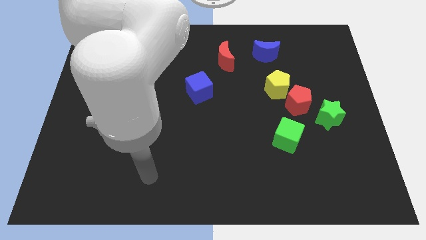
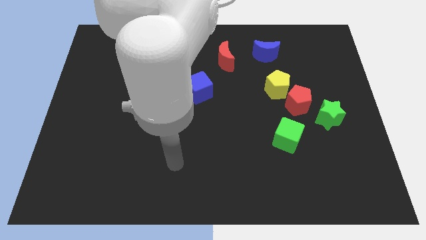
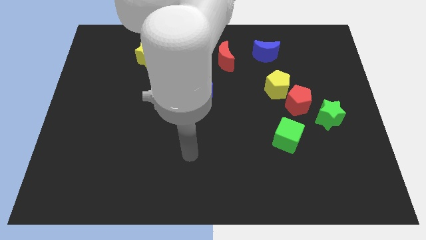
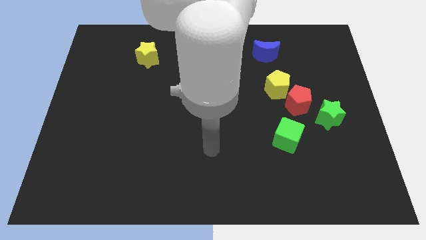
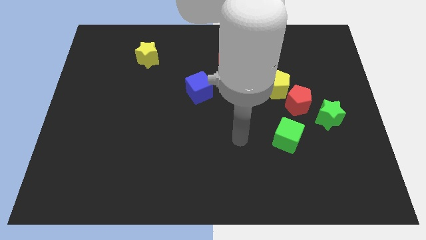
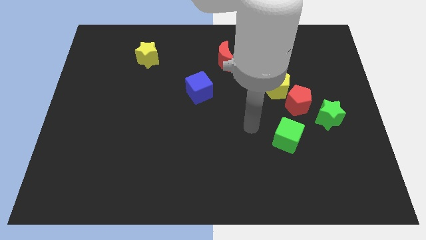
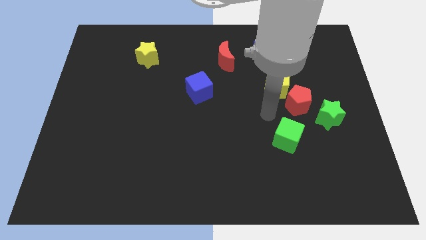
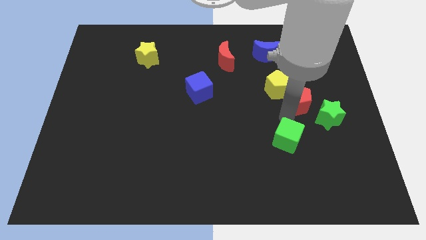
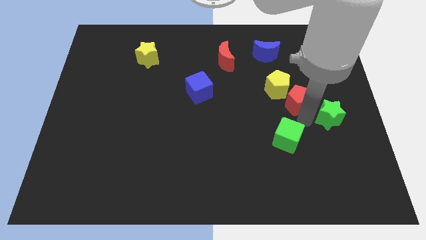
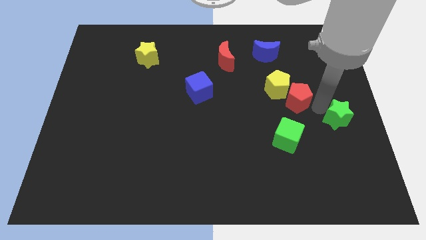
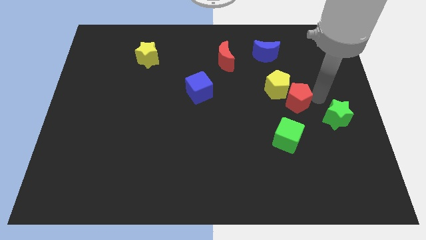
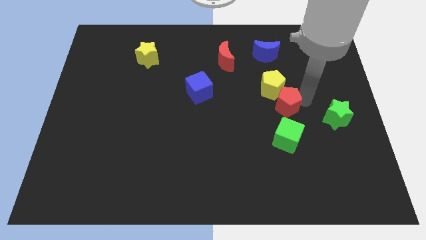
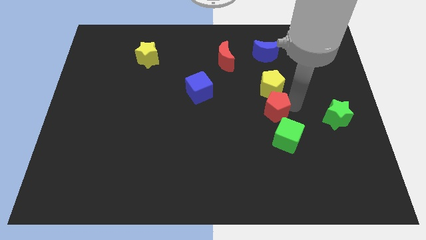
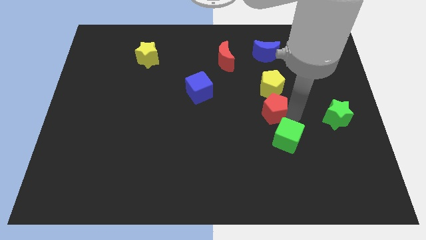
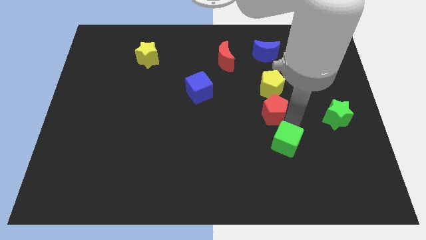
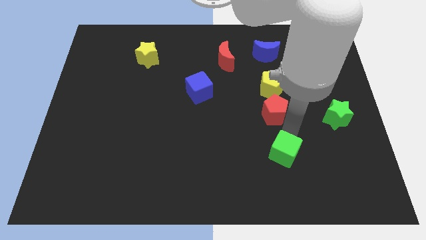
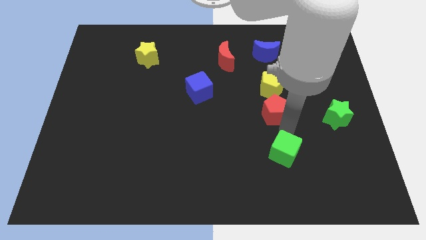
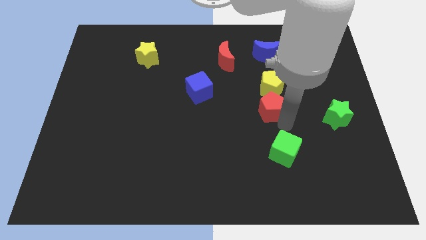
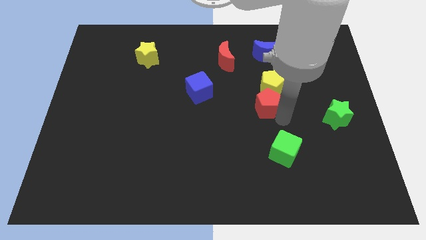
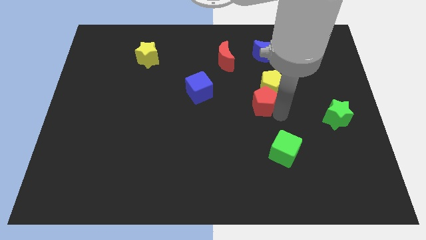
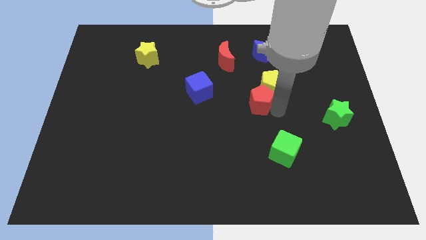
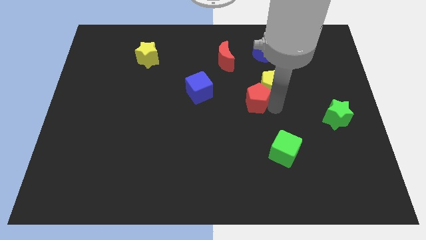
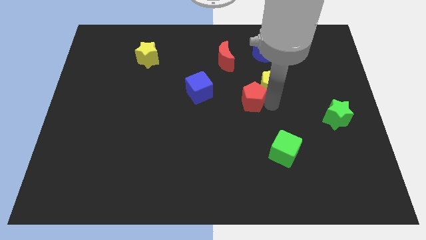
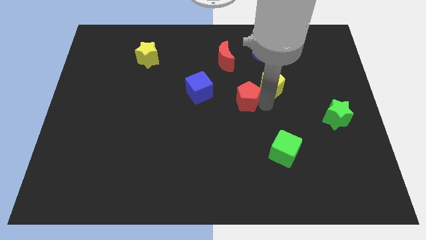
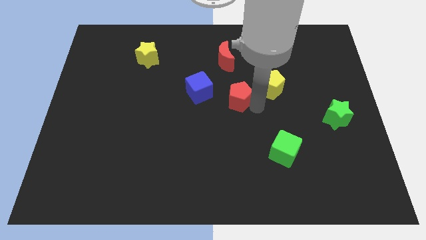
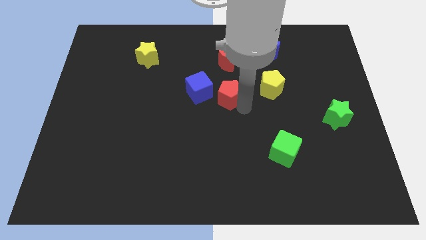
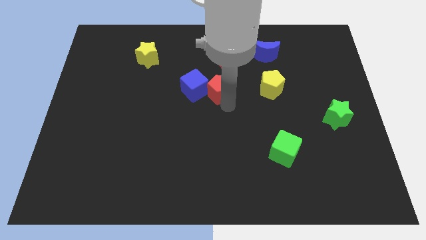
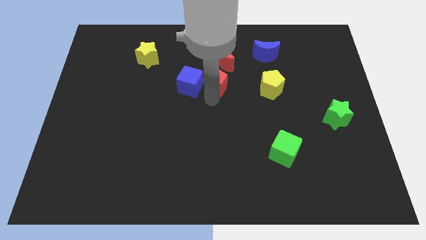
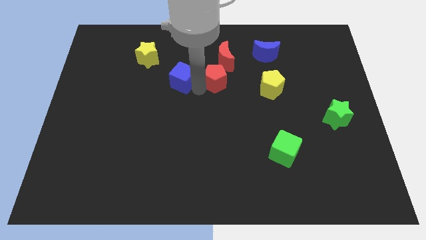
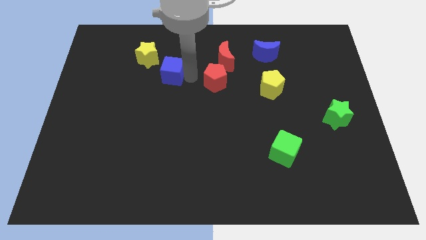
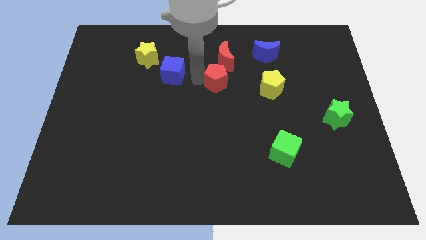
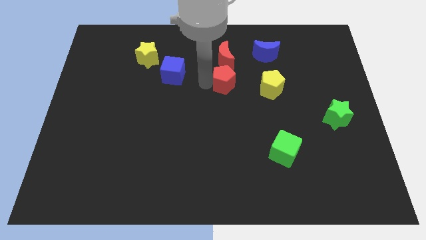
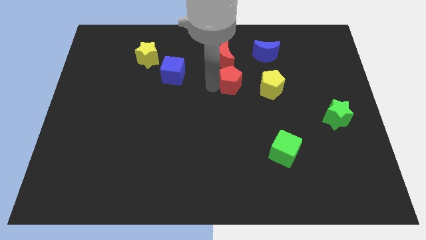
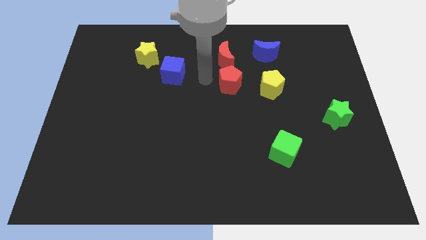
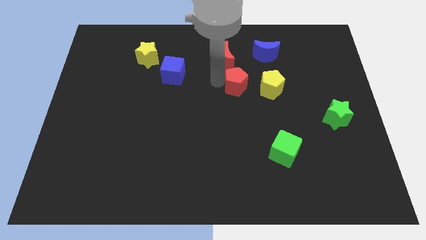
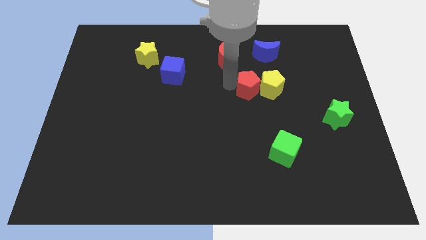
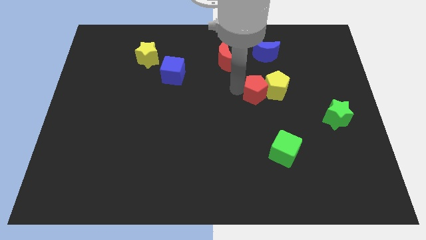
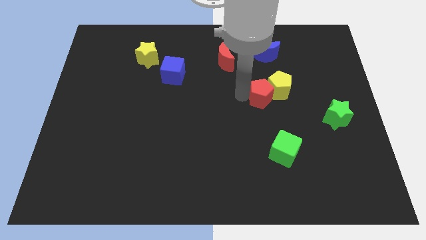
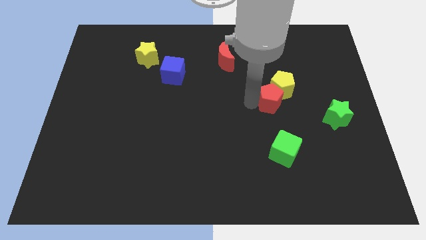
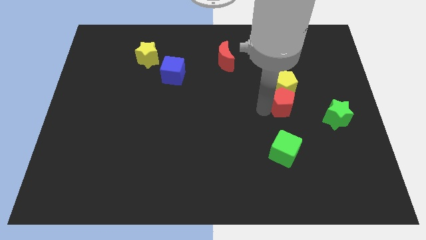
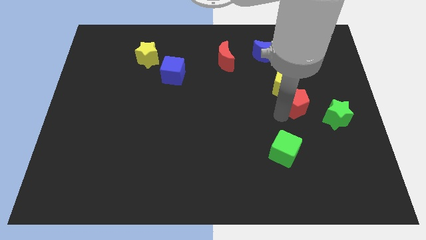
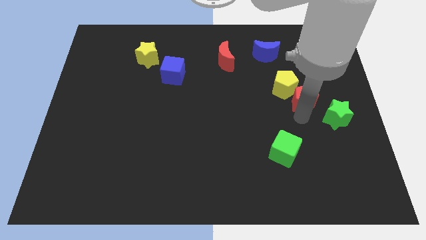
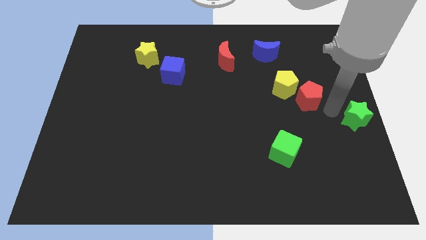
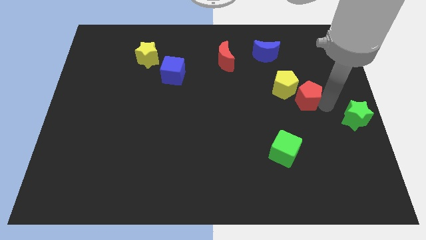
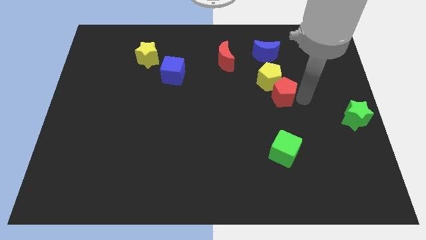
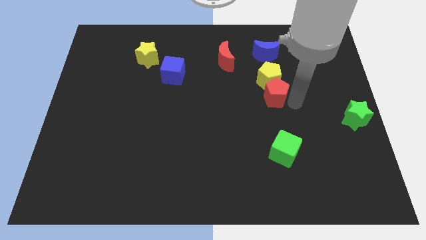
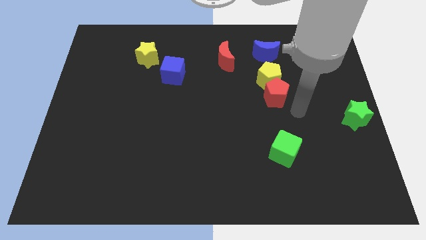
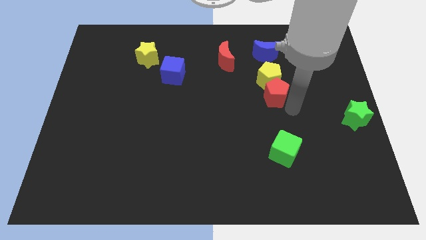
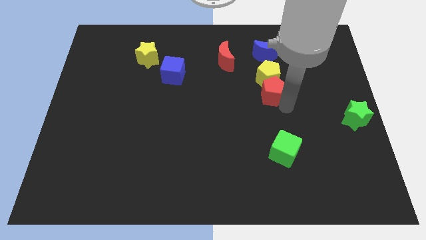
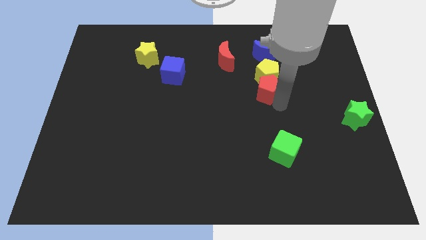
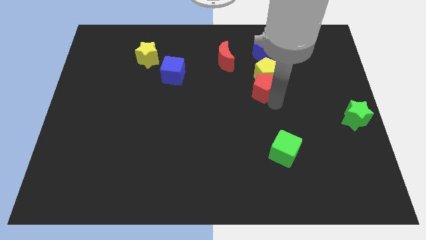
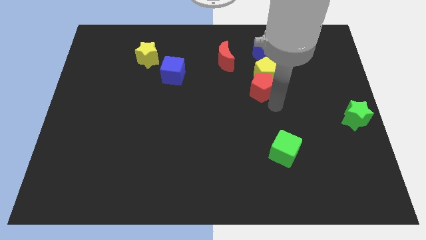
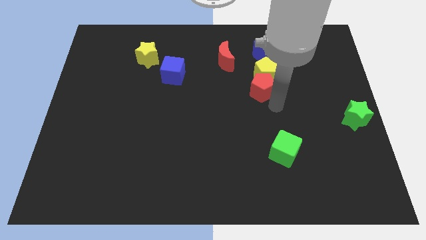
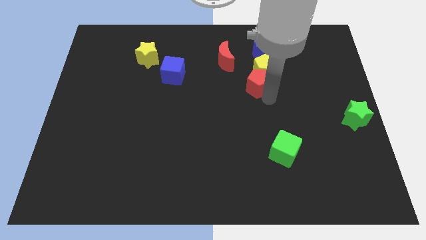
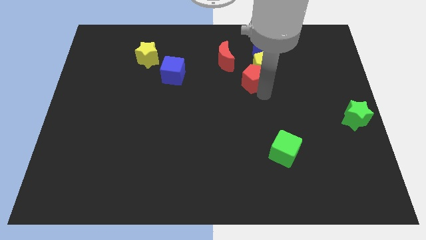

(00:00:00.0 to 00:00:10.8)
push the red pentagon to the bottom left of the blue moon

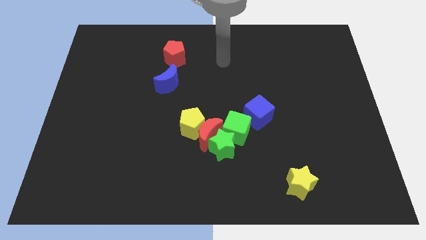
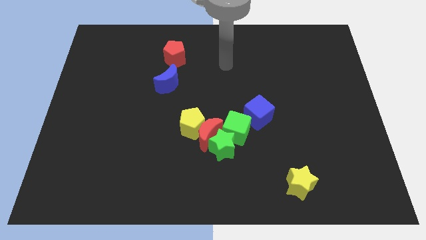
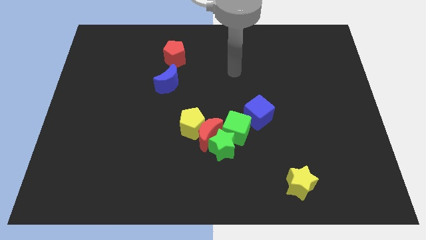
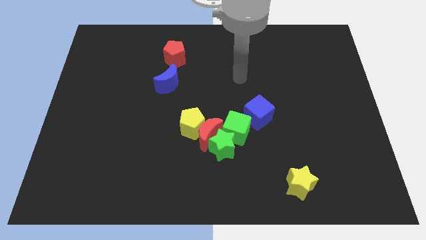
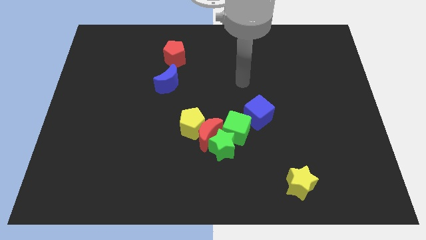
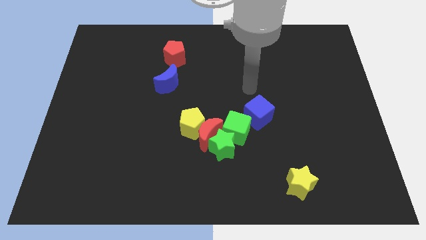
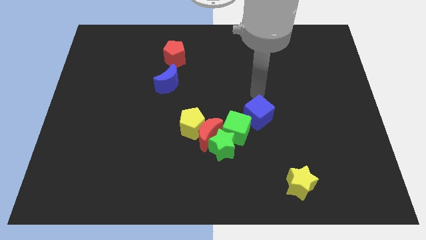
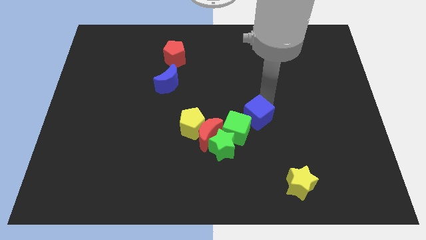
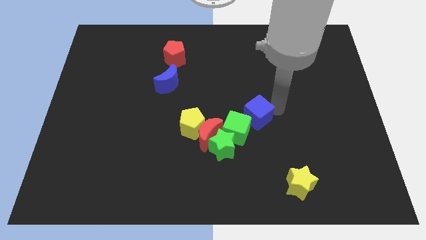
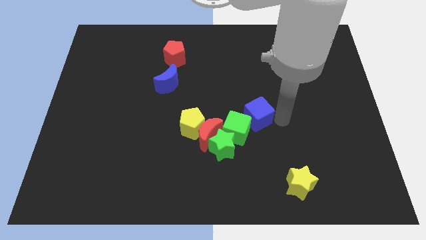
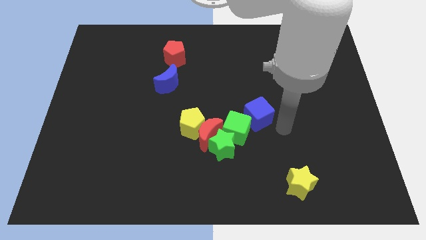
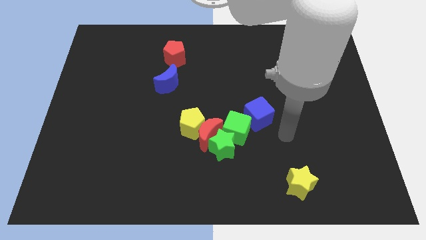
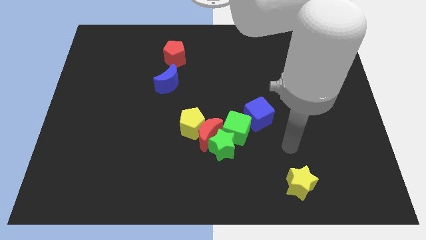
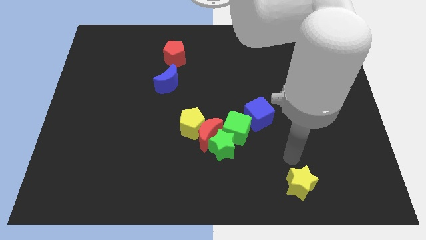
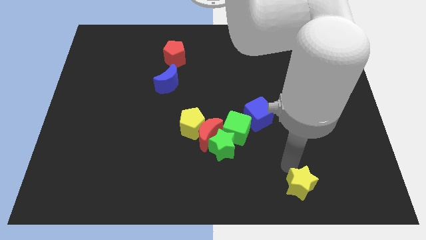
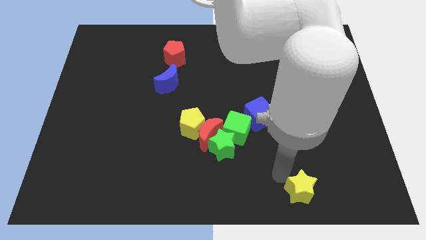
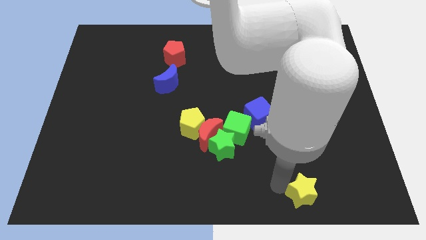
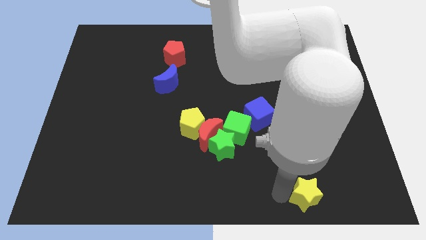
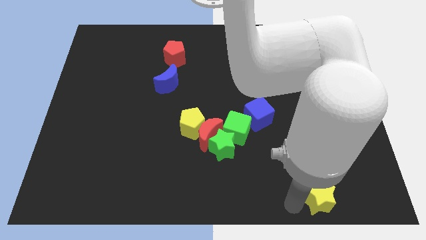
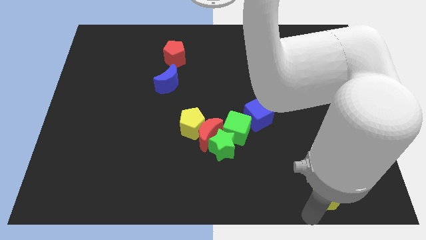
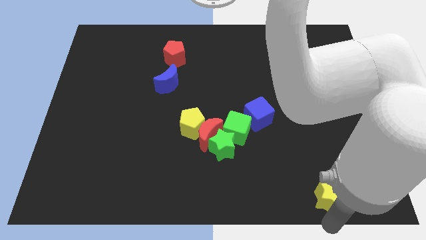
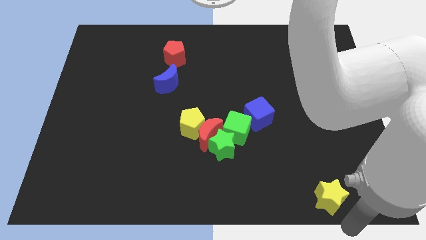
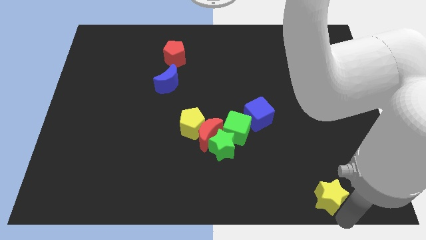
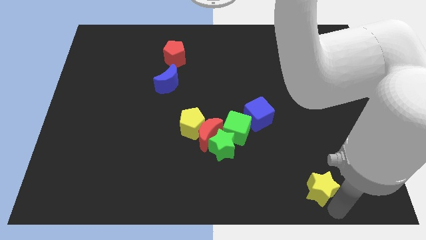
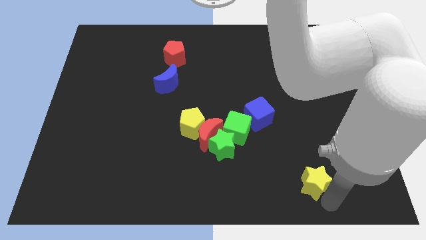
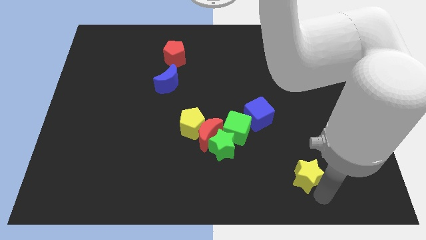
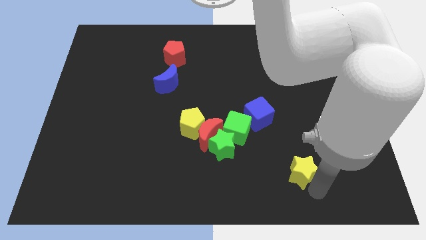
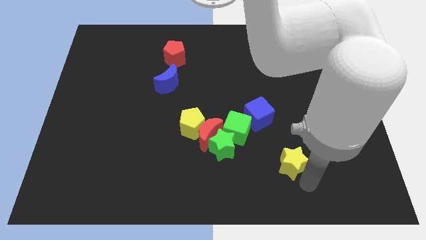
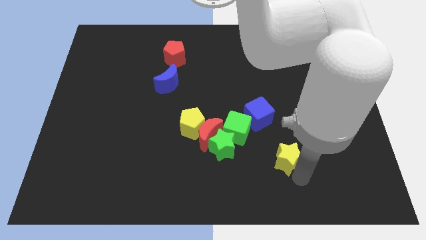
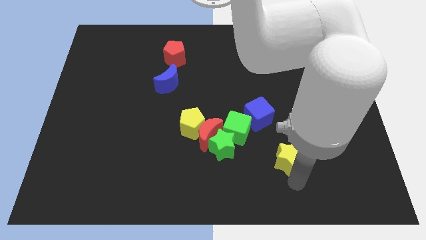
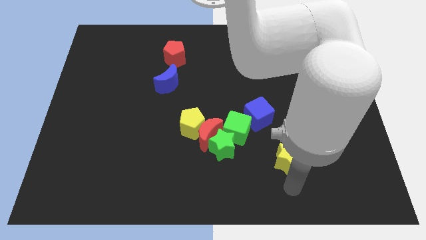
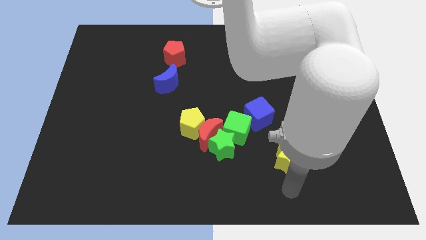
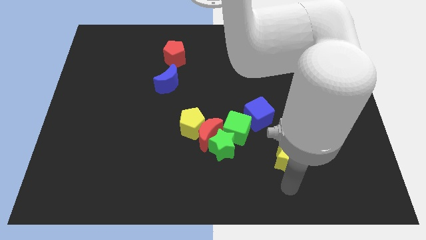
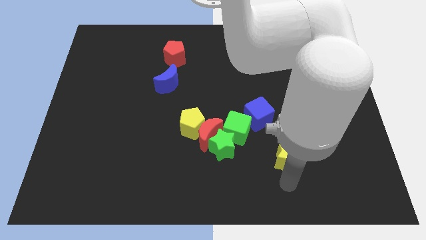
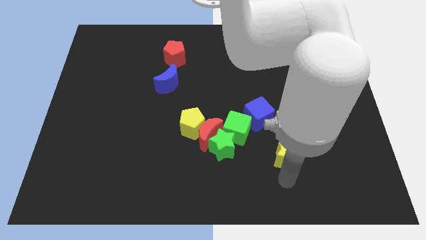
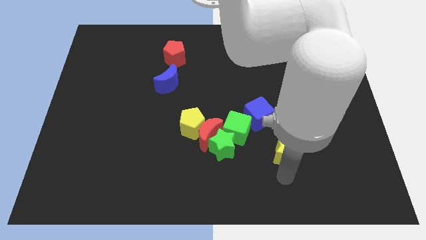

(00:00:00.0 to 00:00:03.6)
push the yellow star to the bottom right side of the blue cube
